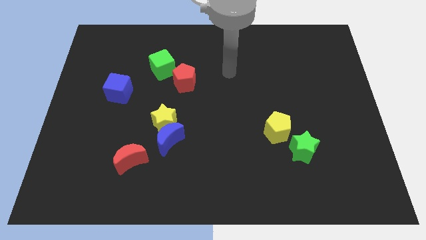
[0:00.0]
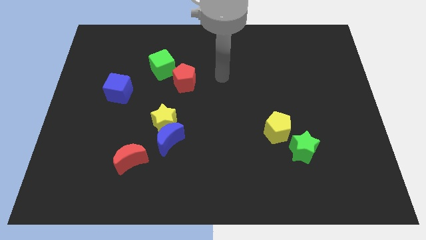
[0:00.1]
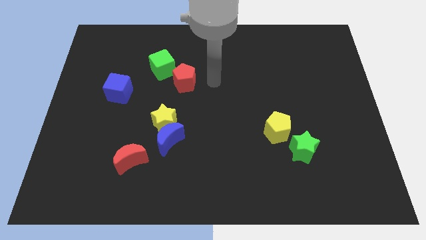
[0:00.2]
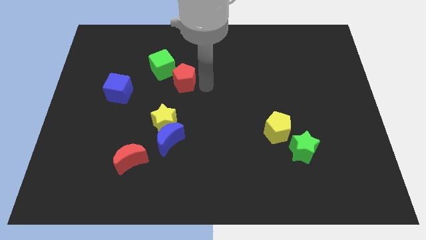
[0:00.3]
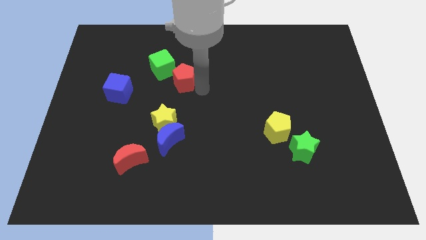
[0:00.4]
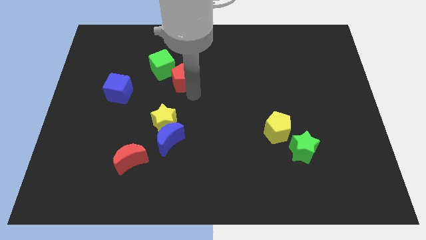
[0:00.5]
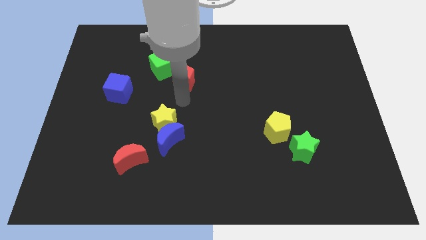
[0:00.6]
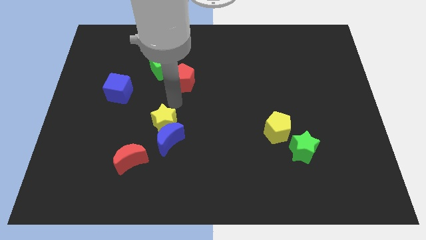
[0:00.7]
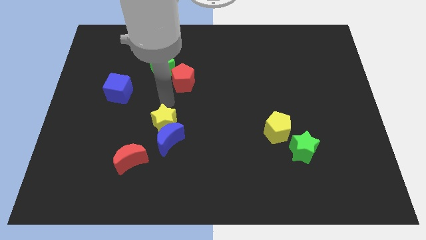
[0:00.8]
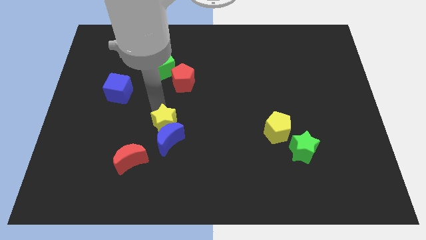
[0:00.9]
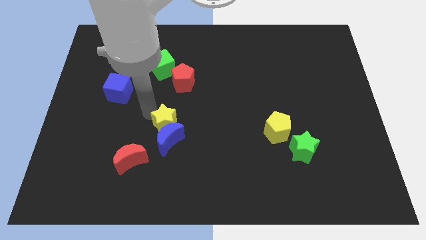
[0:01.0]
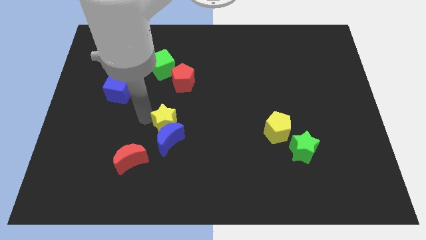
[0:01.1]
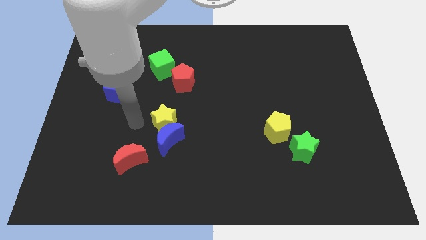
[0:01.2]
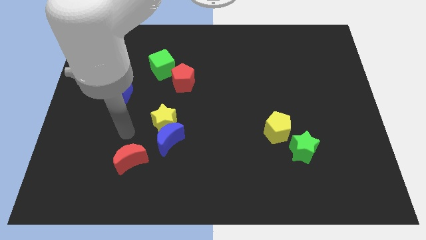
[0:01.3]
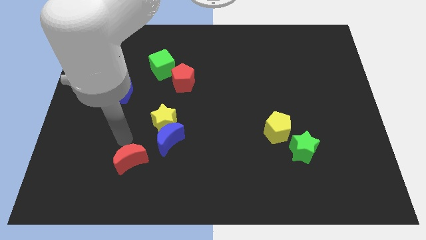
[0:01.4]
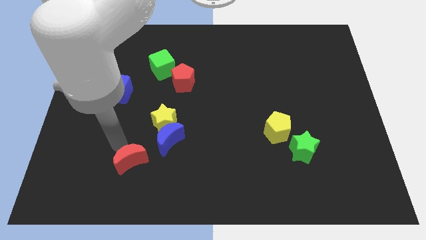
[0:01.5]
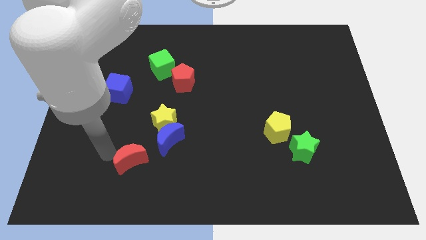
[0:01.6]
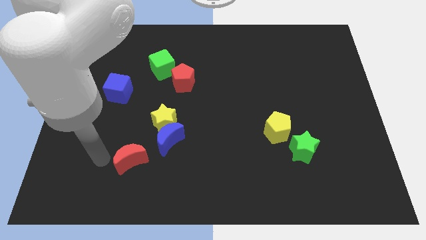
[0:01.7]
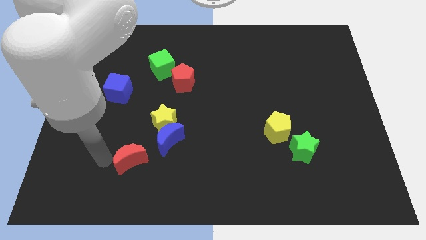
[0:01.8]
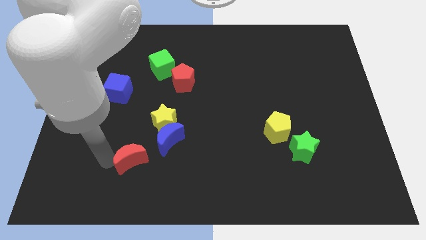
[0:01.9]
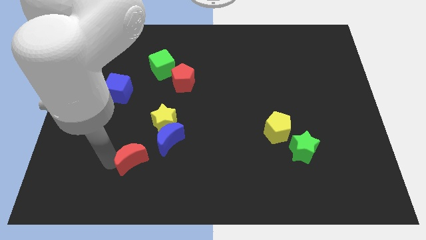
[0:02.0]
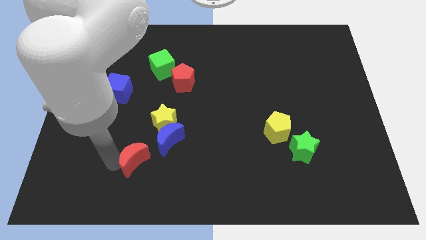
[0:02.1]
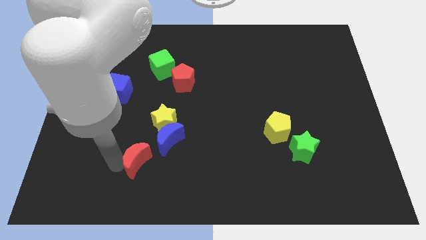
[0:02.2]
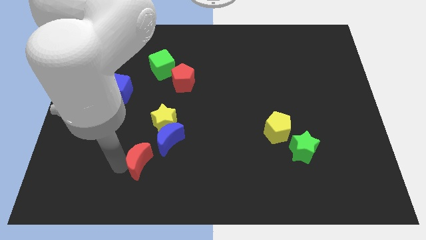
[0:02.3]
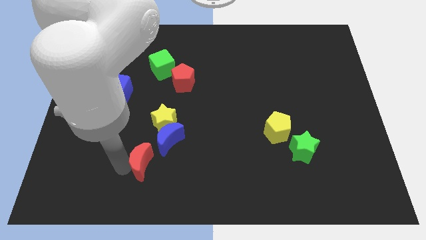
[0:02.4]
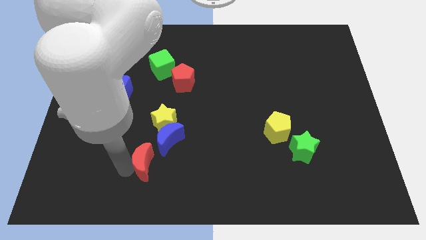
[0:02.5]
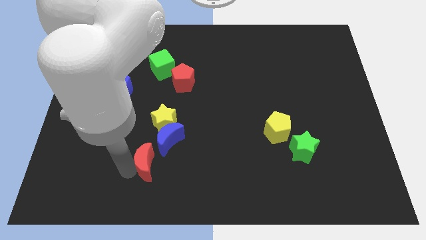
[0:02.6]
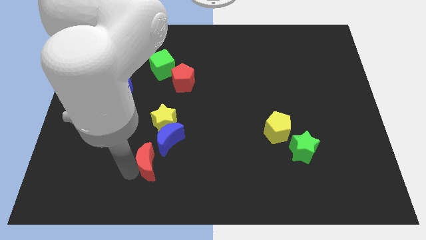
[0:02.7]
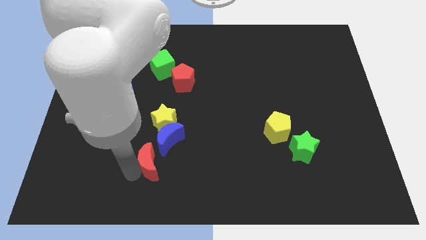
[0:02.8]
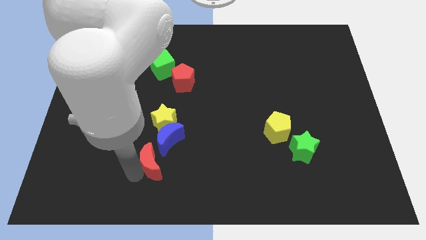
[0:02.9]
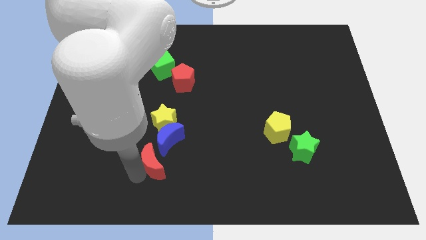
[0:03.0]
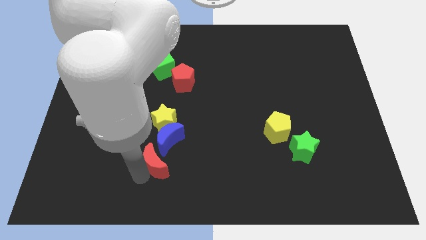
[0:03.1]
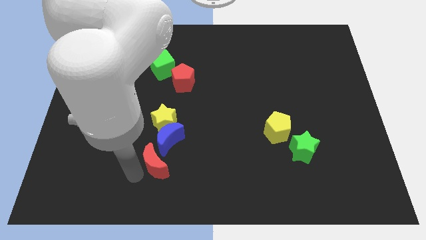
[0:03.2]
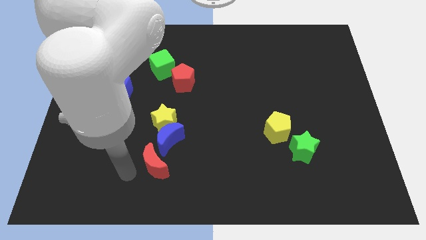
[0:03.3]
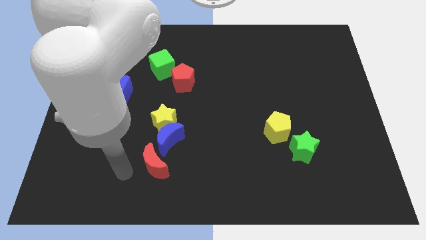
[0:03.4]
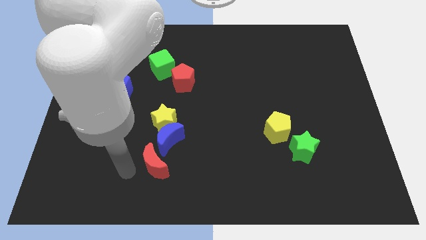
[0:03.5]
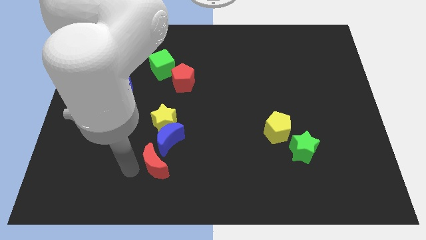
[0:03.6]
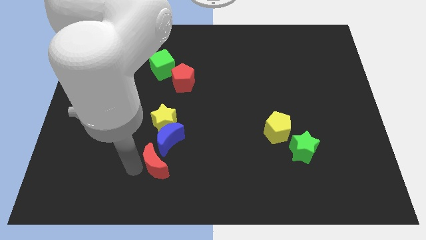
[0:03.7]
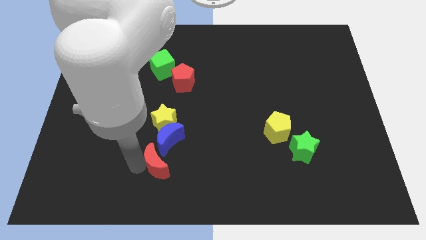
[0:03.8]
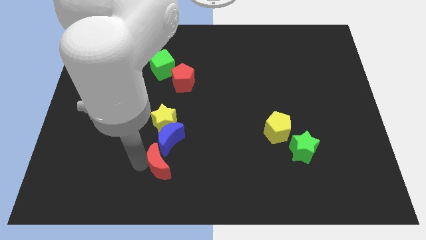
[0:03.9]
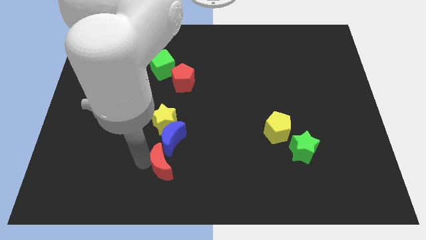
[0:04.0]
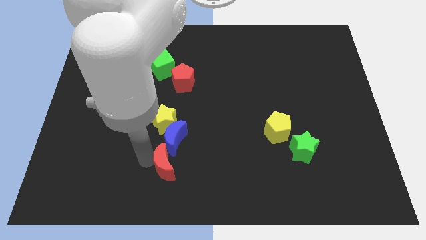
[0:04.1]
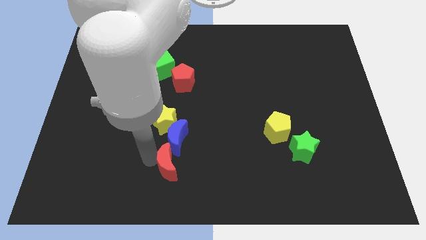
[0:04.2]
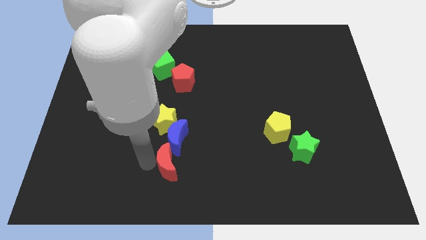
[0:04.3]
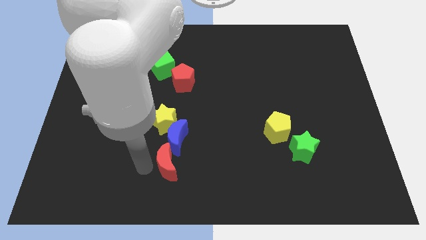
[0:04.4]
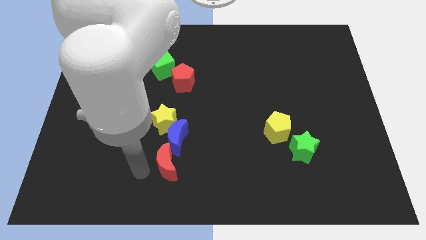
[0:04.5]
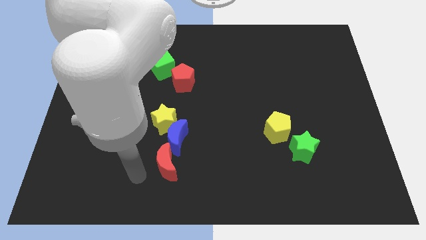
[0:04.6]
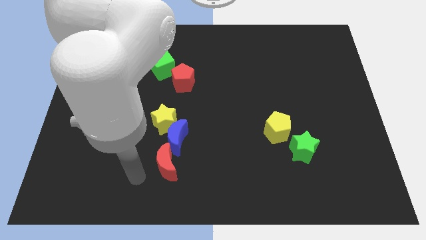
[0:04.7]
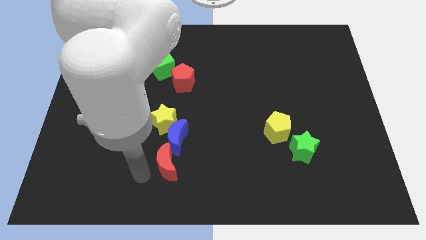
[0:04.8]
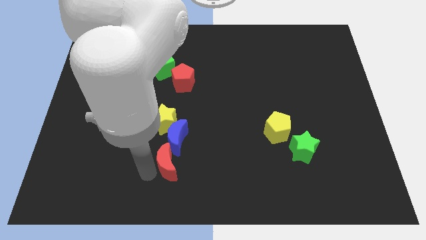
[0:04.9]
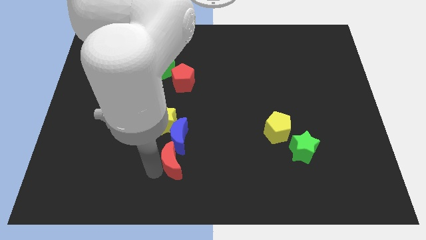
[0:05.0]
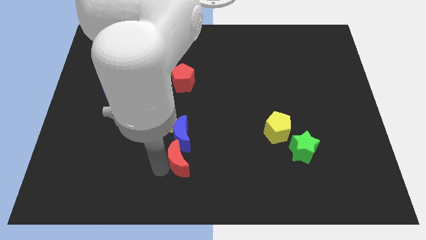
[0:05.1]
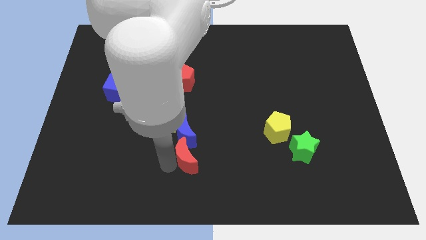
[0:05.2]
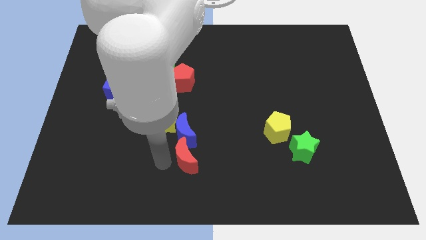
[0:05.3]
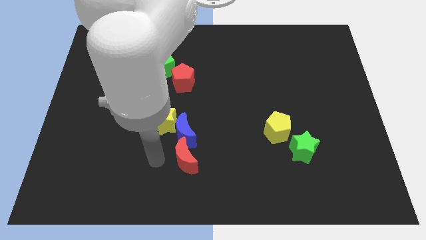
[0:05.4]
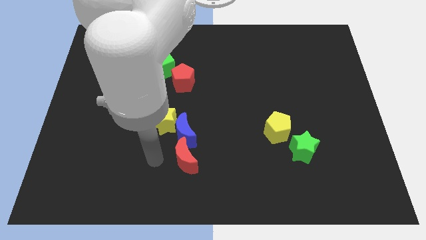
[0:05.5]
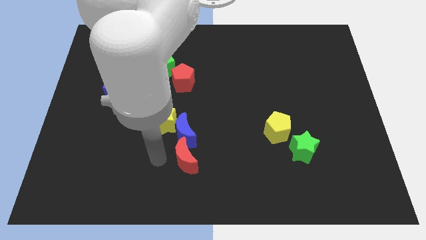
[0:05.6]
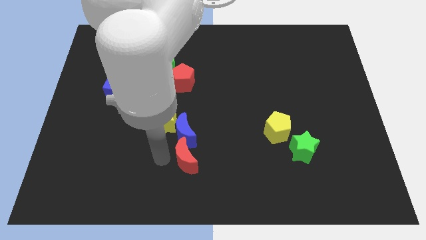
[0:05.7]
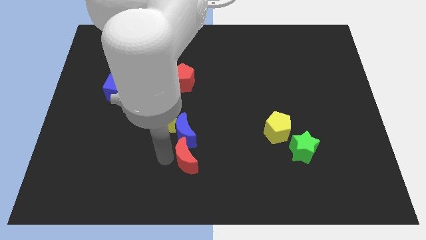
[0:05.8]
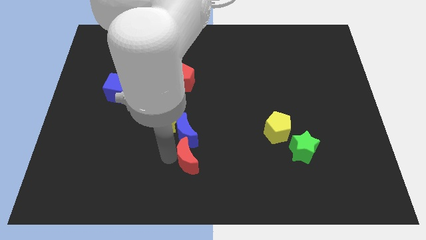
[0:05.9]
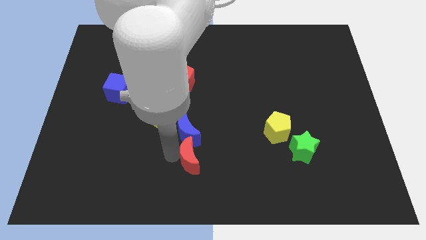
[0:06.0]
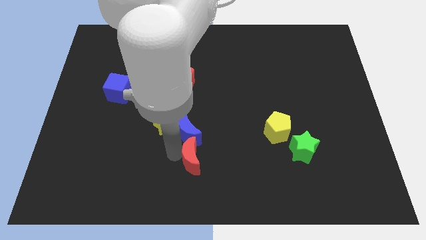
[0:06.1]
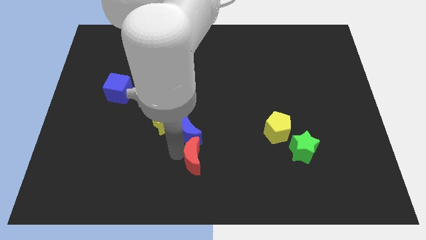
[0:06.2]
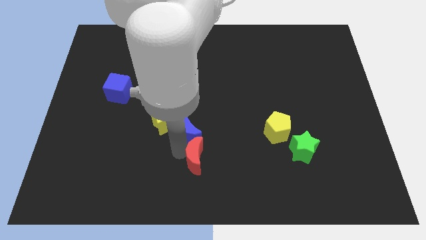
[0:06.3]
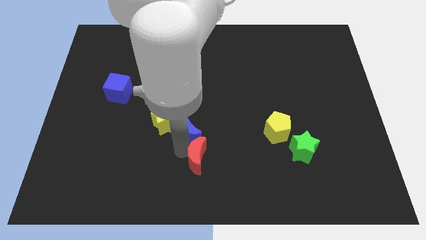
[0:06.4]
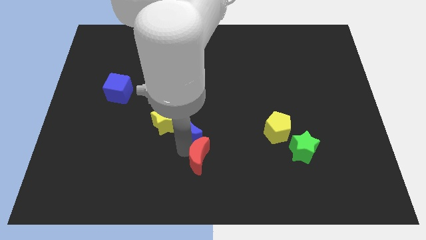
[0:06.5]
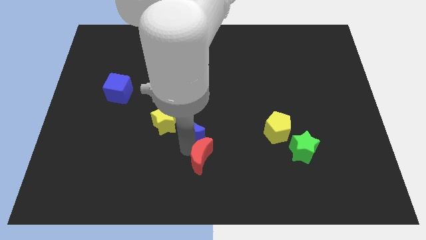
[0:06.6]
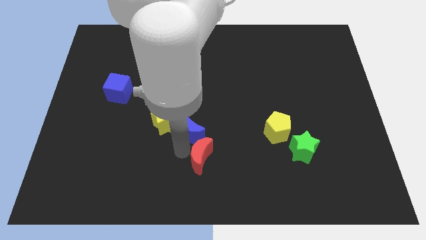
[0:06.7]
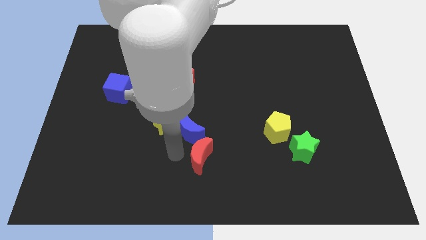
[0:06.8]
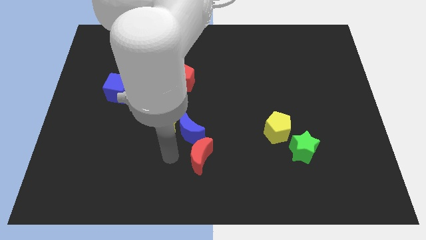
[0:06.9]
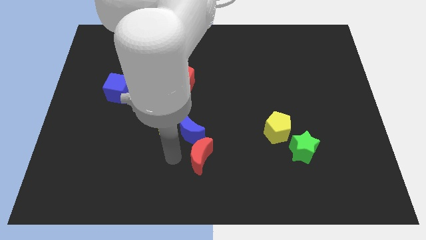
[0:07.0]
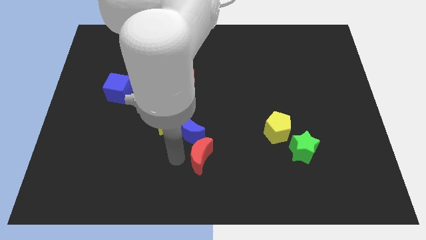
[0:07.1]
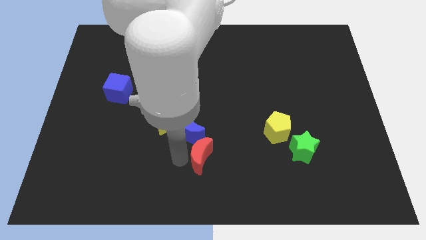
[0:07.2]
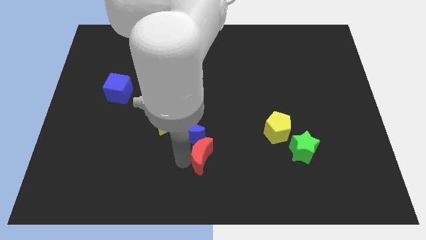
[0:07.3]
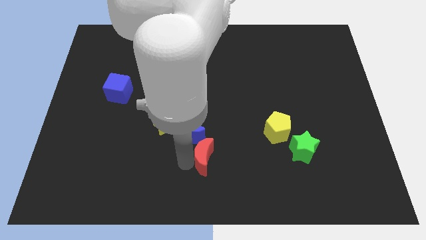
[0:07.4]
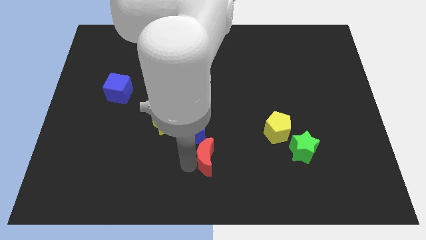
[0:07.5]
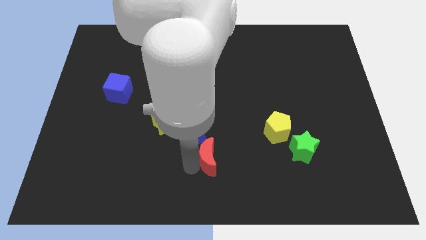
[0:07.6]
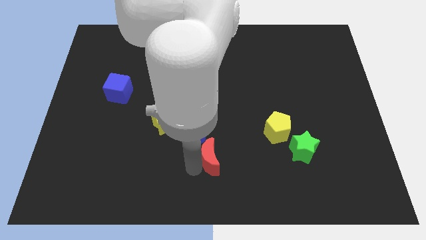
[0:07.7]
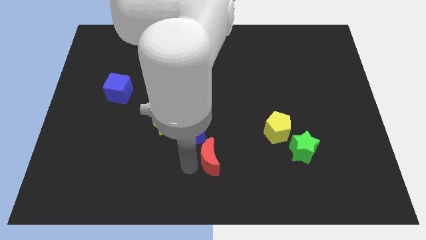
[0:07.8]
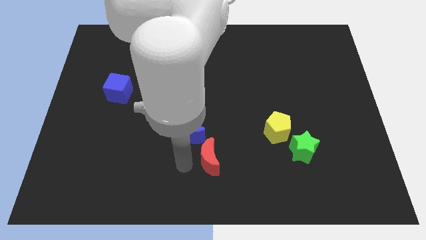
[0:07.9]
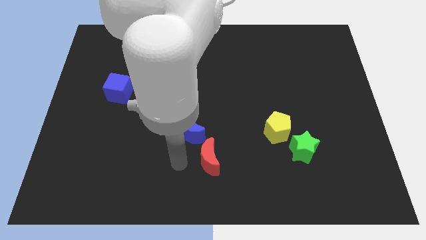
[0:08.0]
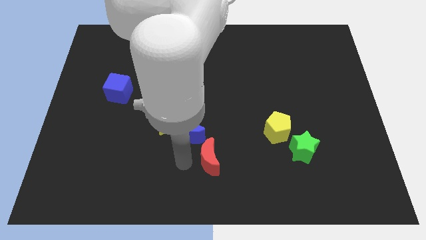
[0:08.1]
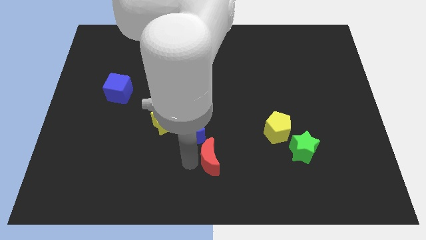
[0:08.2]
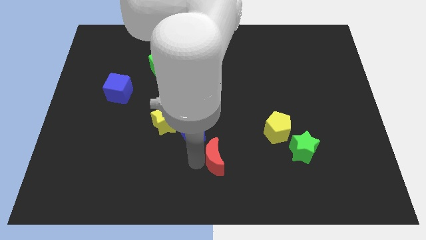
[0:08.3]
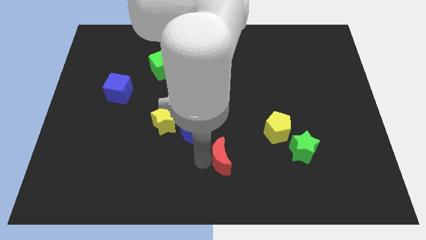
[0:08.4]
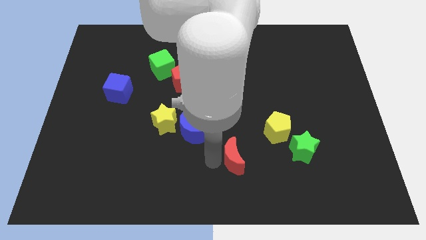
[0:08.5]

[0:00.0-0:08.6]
push the red moon right
